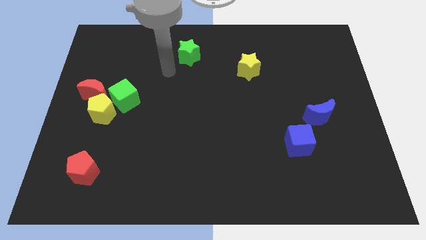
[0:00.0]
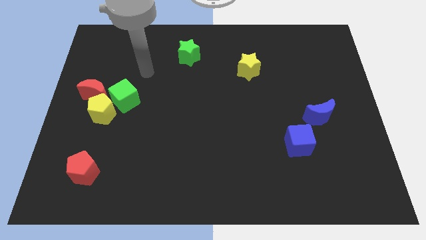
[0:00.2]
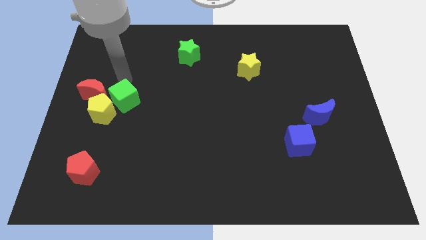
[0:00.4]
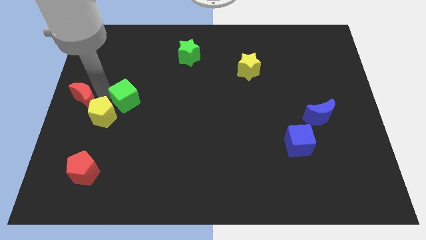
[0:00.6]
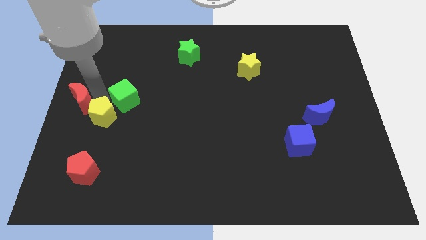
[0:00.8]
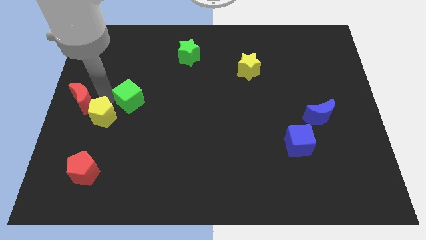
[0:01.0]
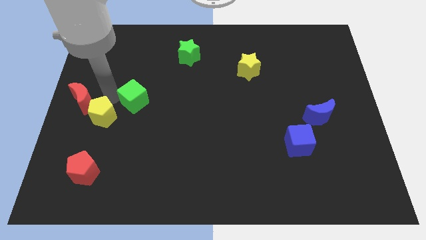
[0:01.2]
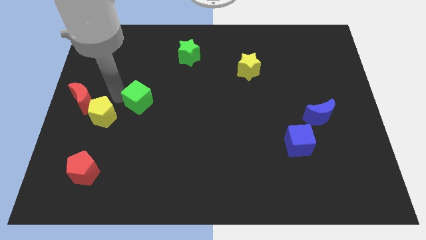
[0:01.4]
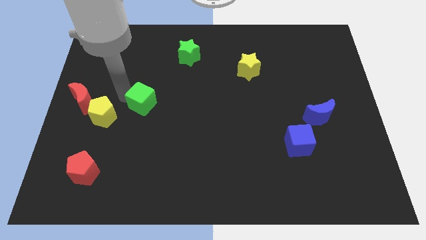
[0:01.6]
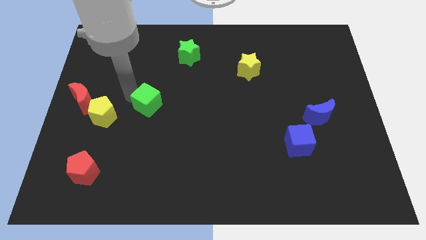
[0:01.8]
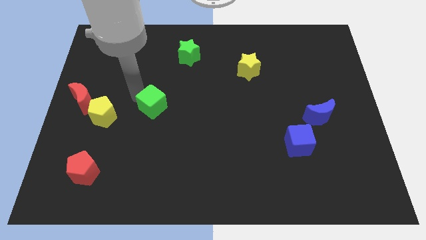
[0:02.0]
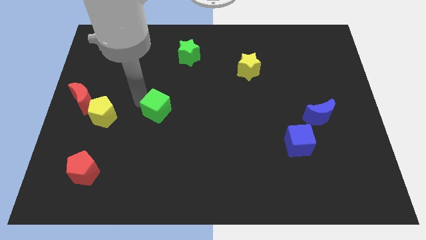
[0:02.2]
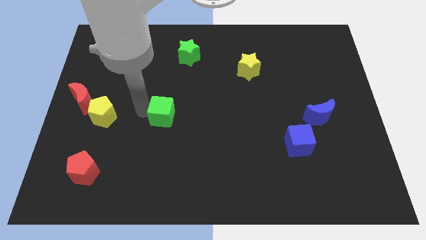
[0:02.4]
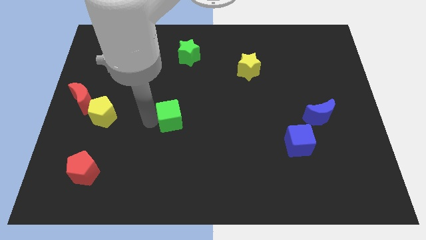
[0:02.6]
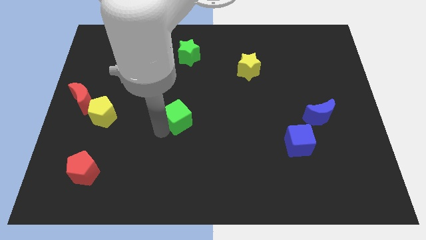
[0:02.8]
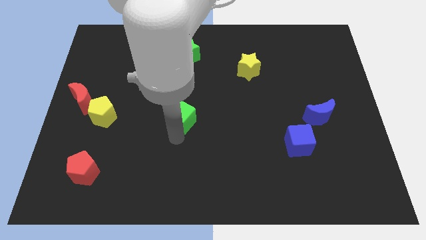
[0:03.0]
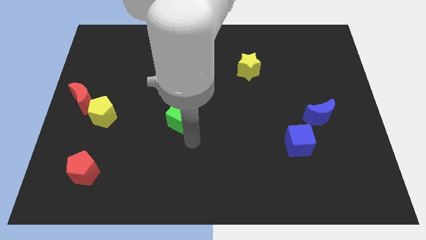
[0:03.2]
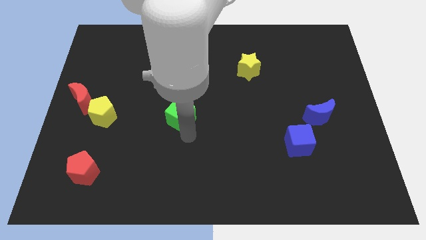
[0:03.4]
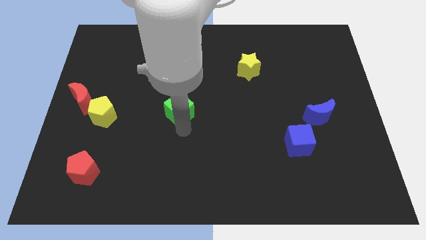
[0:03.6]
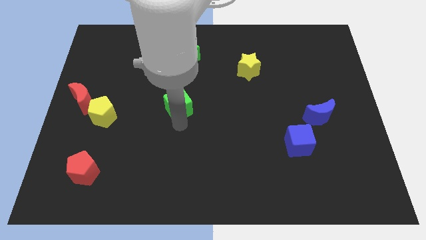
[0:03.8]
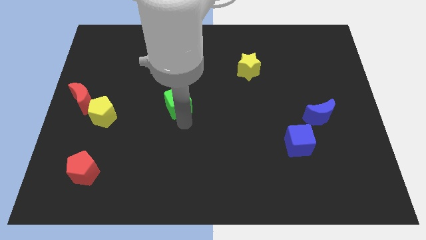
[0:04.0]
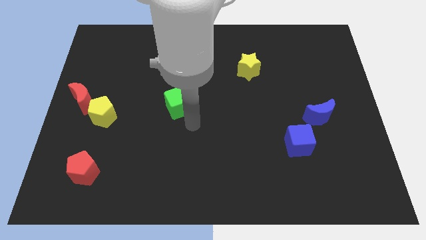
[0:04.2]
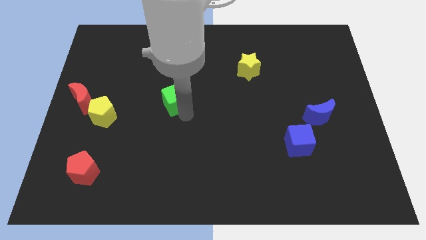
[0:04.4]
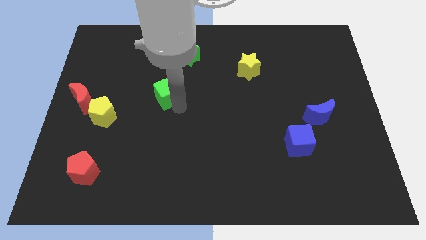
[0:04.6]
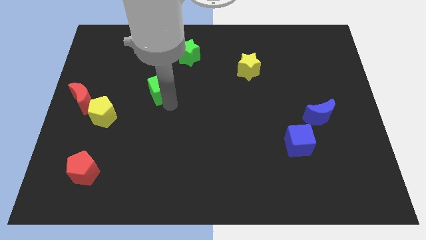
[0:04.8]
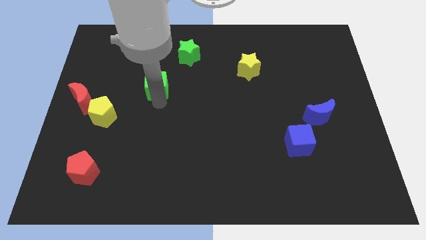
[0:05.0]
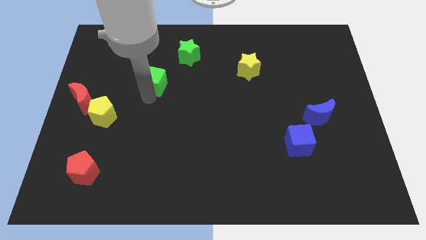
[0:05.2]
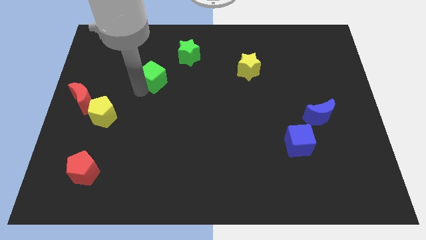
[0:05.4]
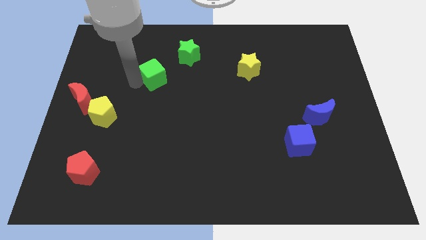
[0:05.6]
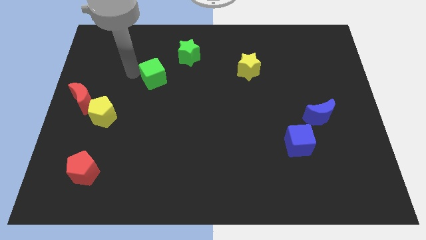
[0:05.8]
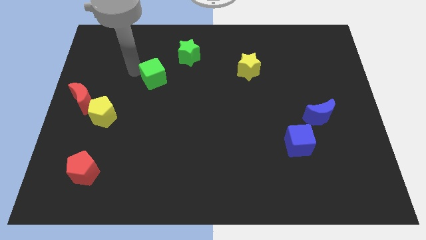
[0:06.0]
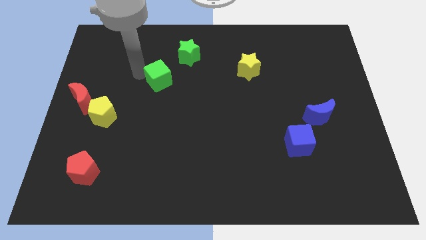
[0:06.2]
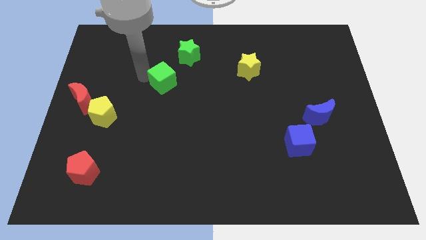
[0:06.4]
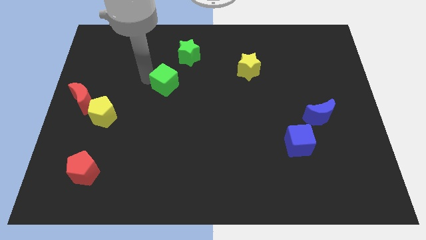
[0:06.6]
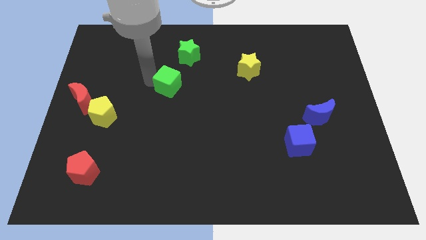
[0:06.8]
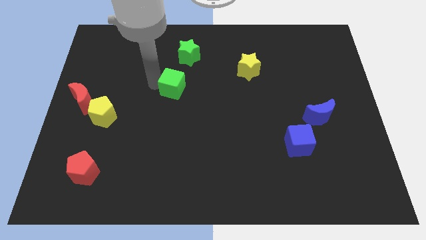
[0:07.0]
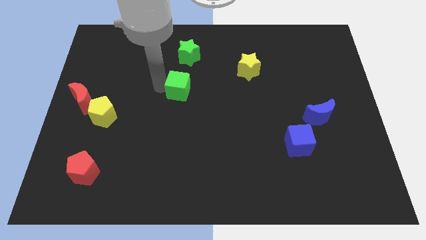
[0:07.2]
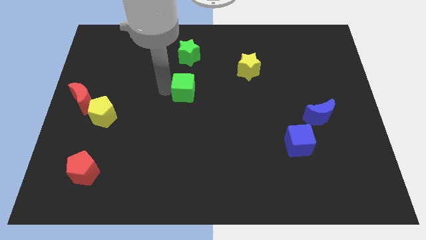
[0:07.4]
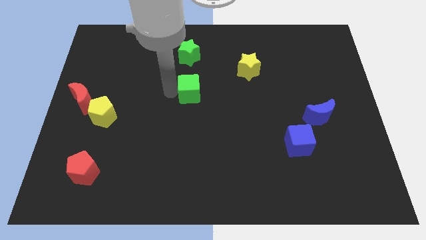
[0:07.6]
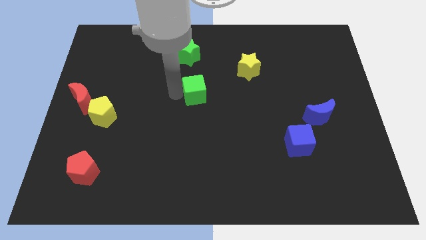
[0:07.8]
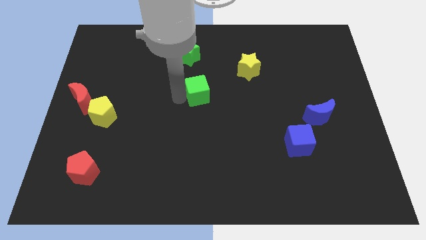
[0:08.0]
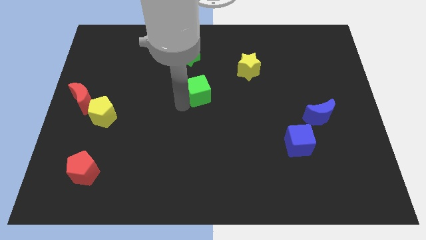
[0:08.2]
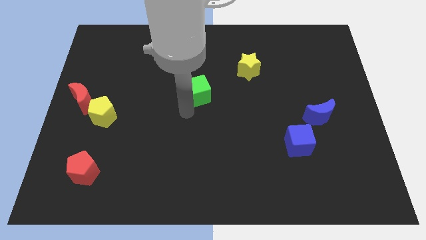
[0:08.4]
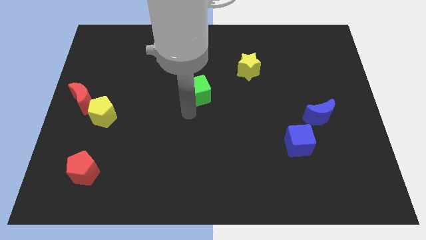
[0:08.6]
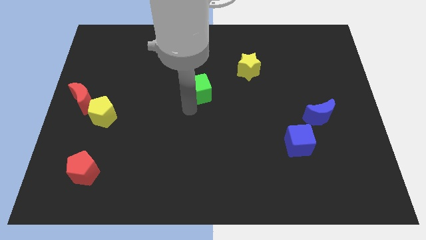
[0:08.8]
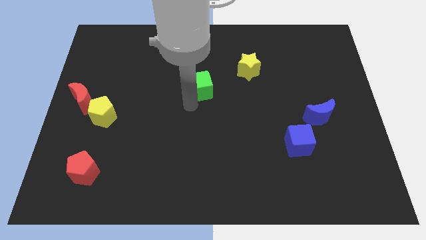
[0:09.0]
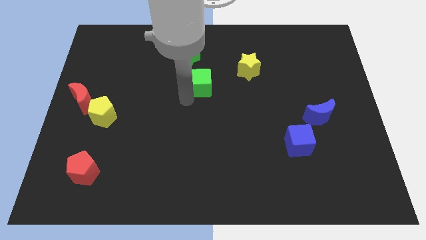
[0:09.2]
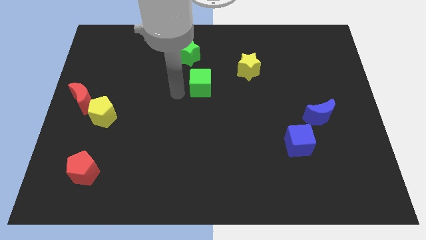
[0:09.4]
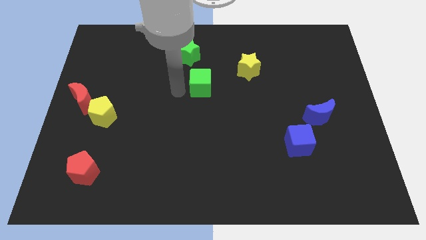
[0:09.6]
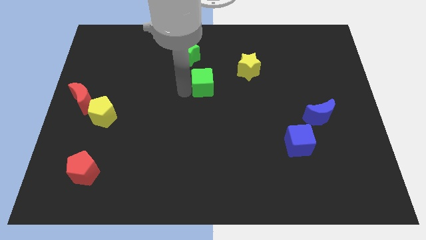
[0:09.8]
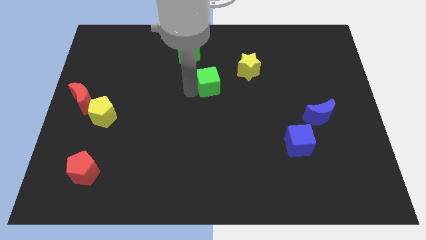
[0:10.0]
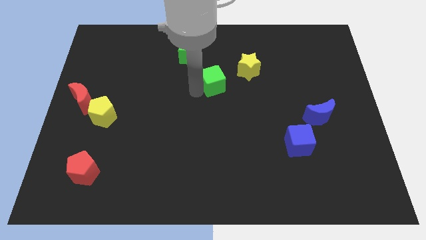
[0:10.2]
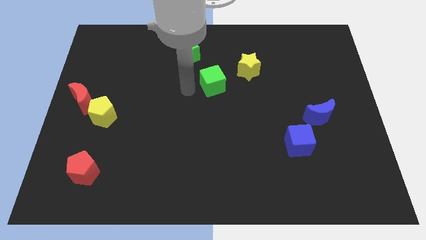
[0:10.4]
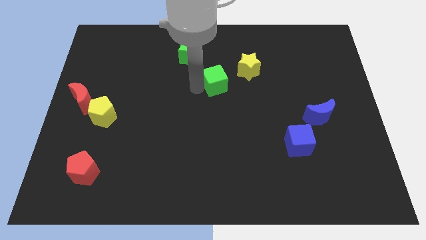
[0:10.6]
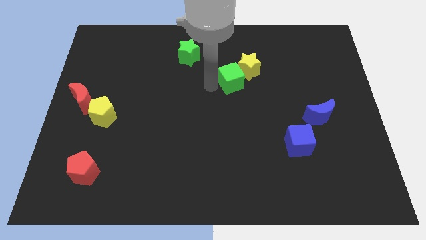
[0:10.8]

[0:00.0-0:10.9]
push the green cube close to the yellow star

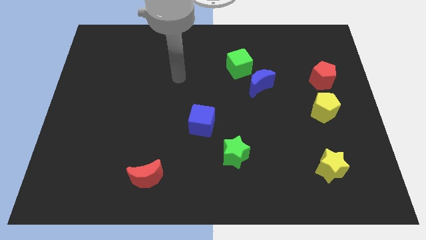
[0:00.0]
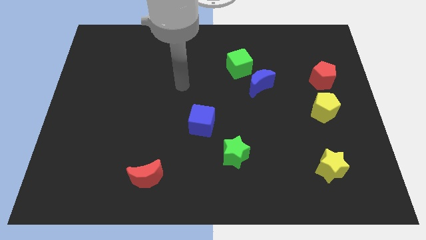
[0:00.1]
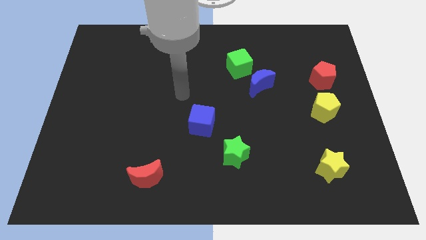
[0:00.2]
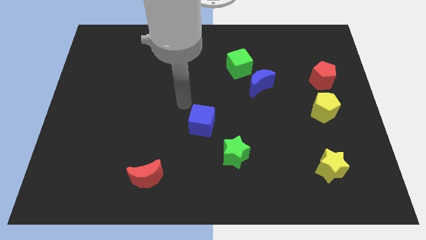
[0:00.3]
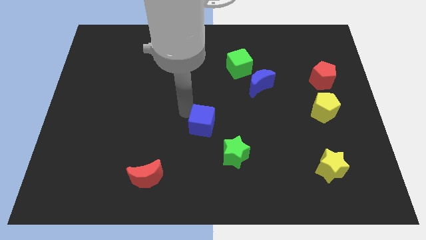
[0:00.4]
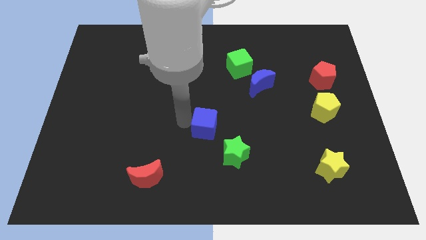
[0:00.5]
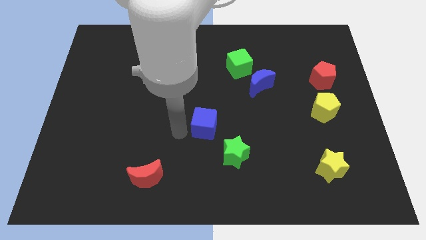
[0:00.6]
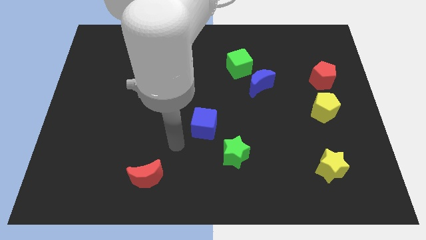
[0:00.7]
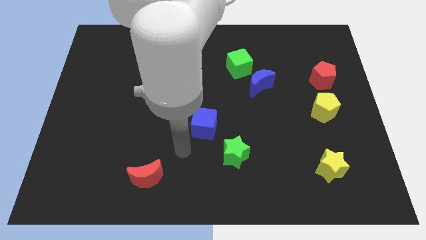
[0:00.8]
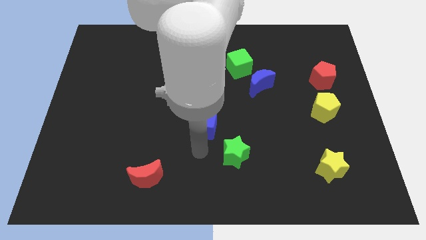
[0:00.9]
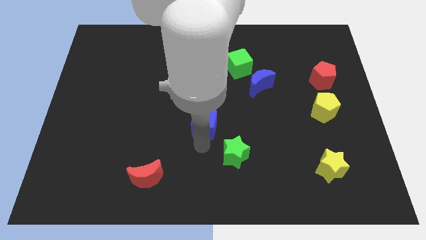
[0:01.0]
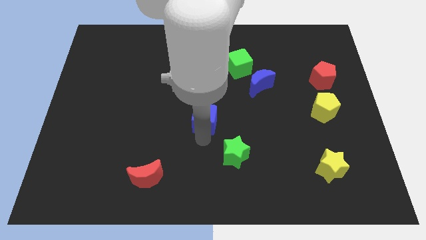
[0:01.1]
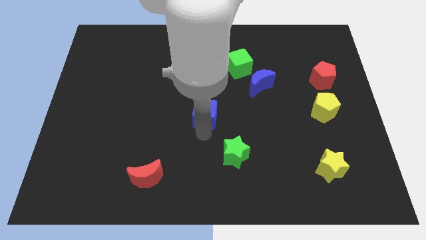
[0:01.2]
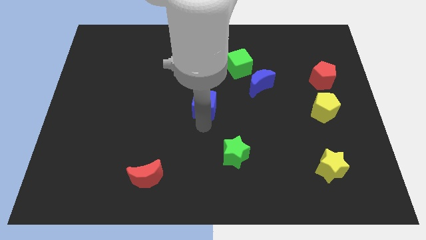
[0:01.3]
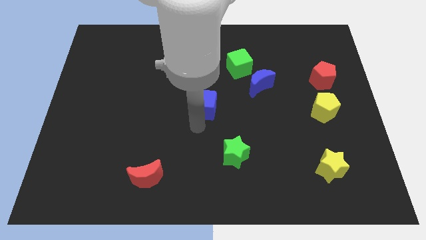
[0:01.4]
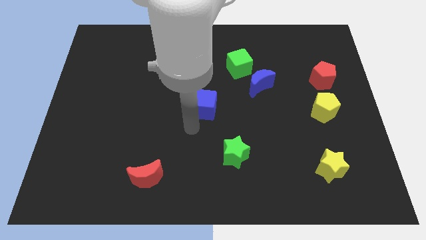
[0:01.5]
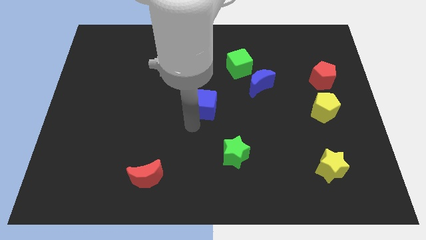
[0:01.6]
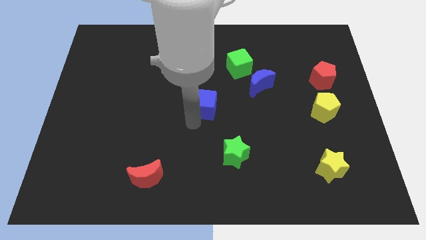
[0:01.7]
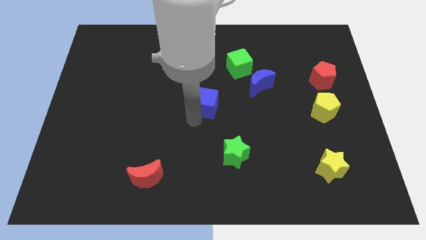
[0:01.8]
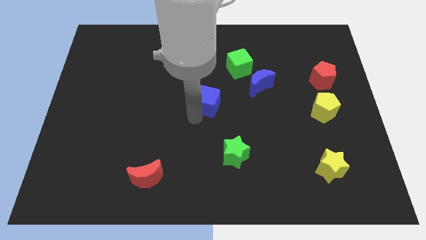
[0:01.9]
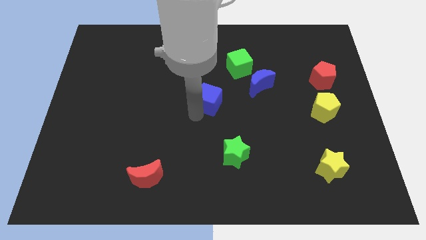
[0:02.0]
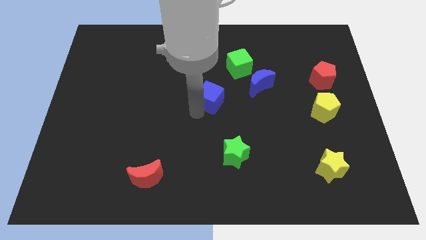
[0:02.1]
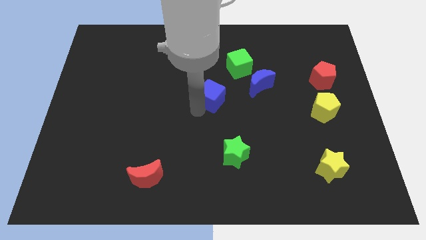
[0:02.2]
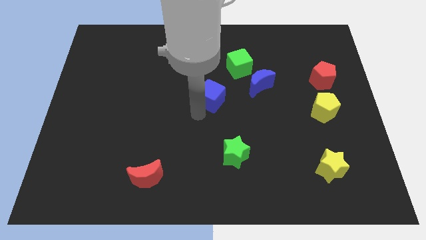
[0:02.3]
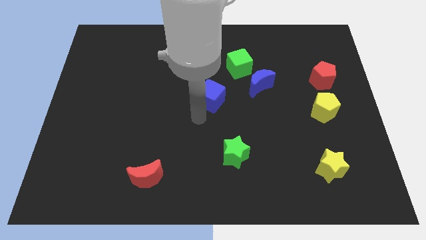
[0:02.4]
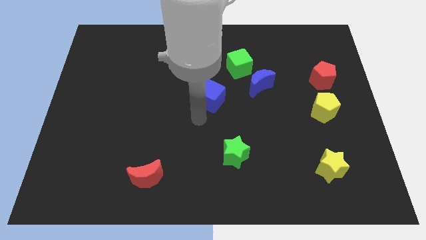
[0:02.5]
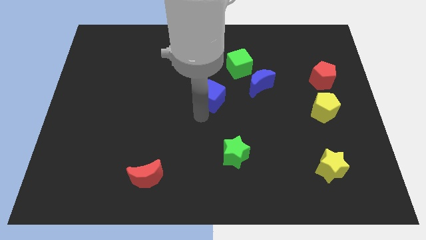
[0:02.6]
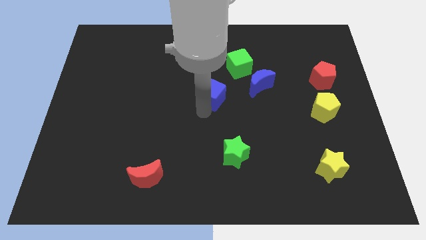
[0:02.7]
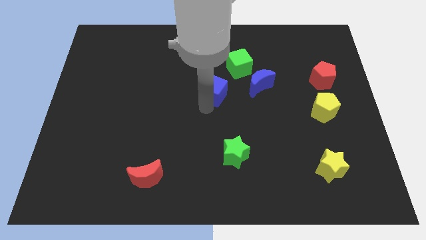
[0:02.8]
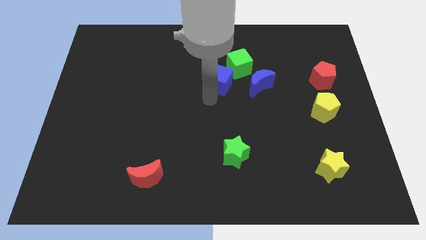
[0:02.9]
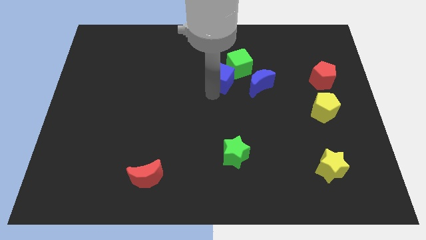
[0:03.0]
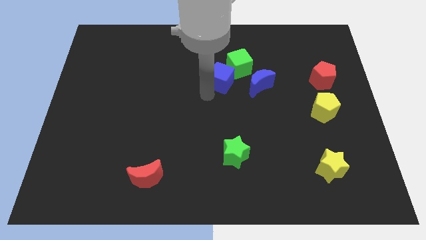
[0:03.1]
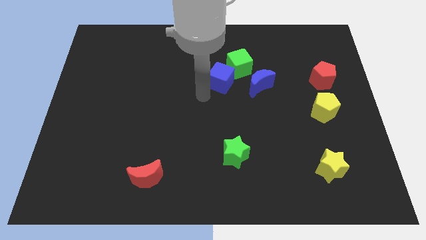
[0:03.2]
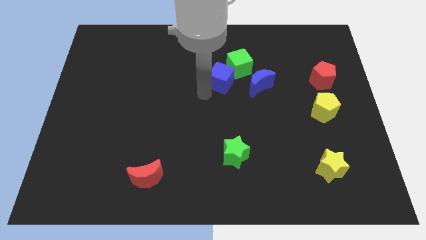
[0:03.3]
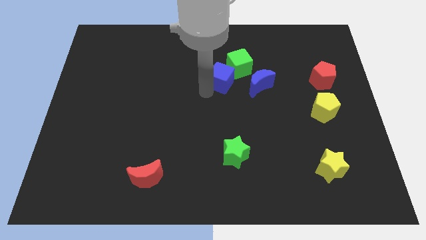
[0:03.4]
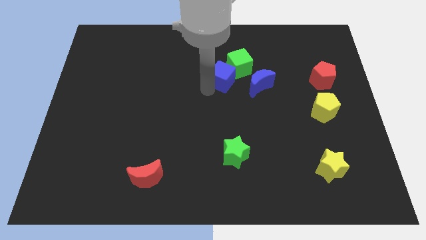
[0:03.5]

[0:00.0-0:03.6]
push the blue cube towards the green cube
